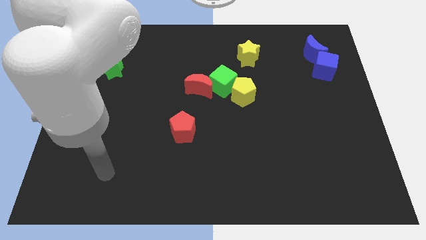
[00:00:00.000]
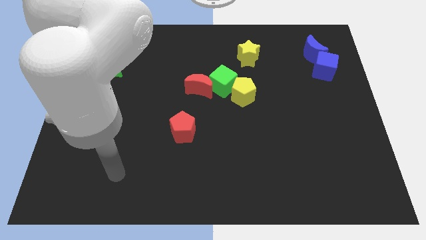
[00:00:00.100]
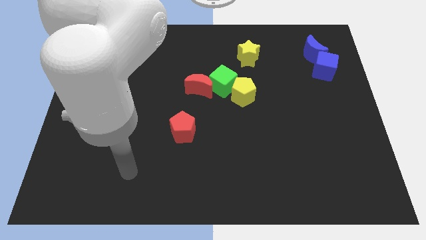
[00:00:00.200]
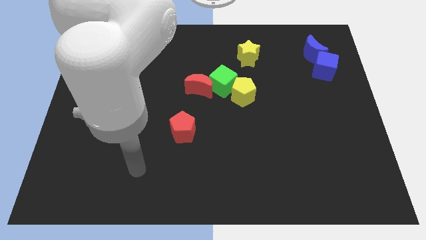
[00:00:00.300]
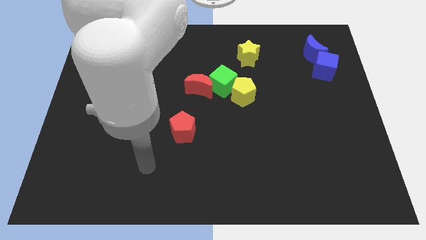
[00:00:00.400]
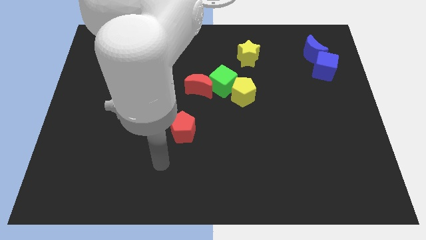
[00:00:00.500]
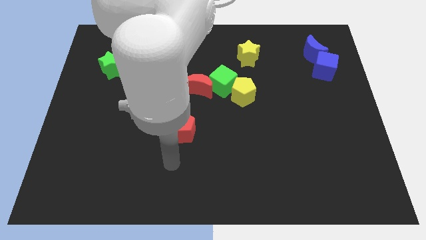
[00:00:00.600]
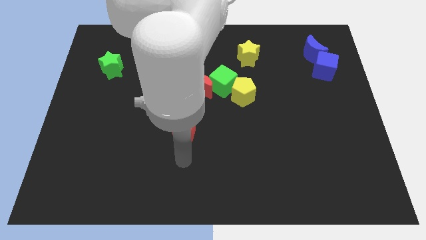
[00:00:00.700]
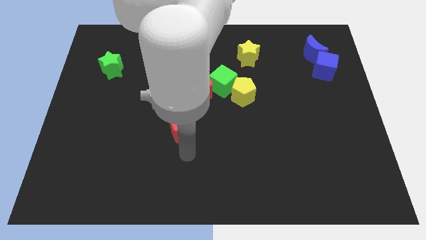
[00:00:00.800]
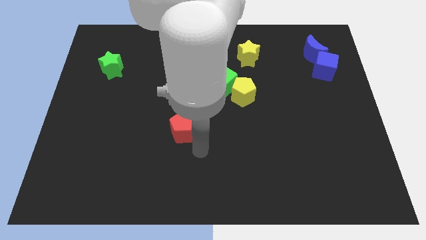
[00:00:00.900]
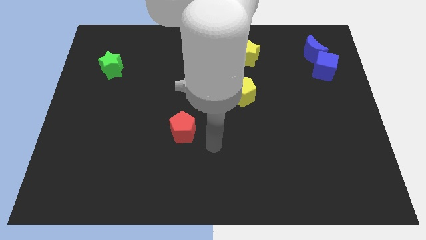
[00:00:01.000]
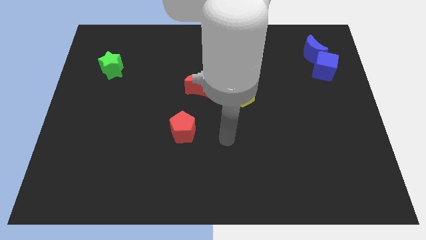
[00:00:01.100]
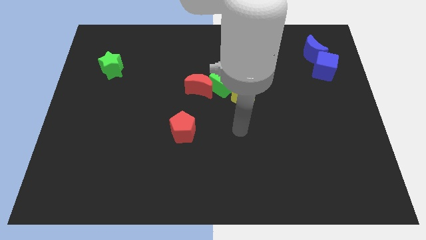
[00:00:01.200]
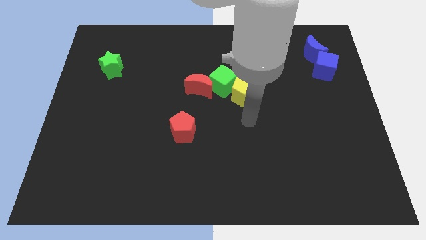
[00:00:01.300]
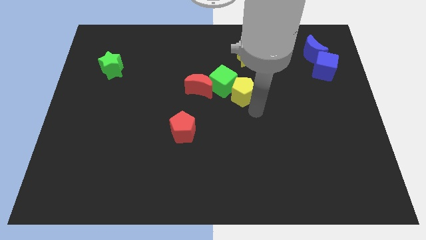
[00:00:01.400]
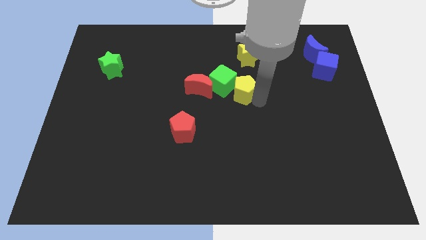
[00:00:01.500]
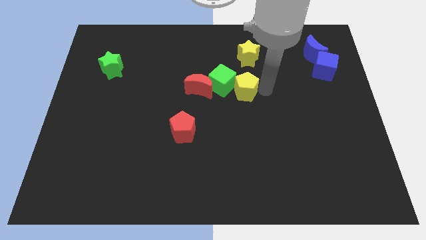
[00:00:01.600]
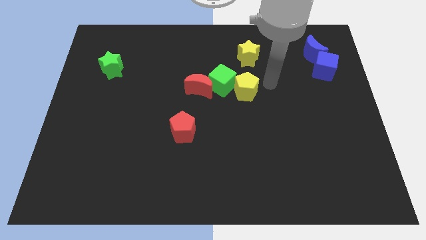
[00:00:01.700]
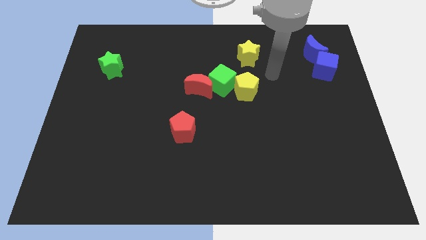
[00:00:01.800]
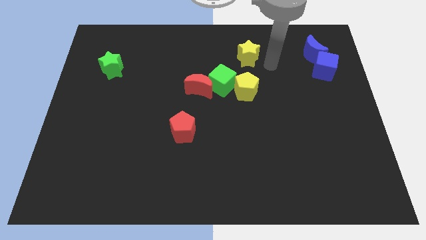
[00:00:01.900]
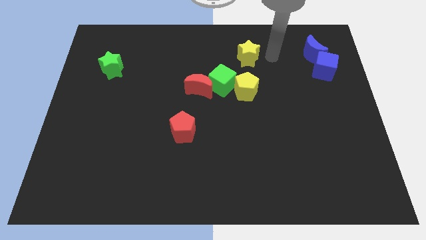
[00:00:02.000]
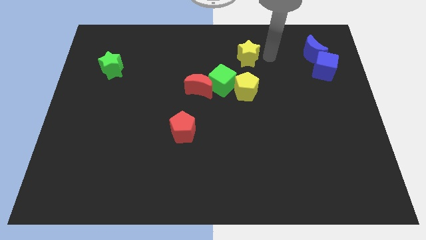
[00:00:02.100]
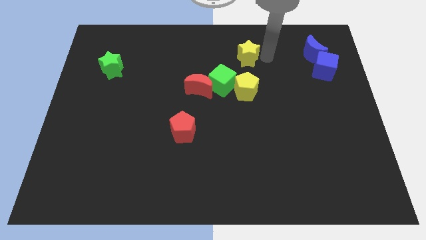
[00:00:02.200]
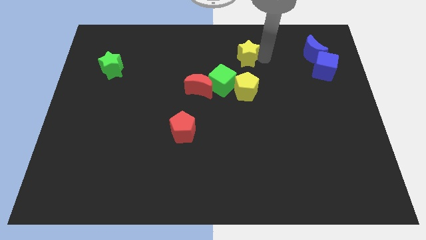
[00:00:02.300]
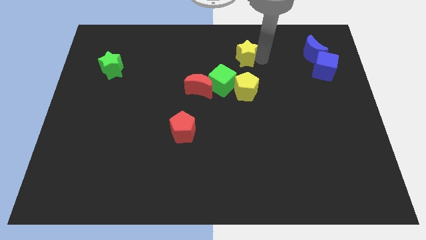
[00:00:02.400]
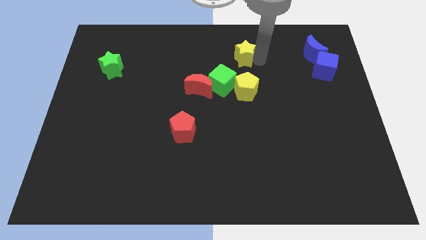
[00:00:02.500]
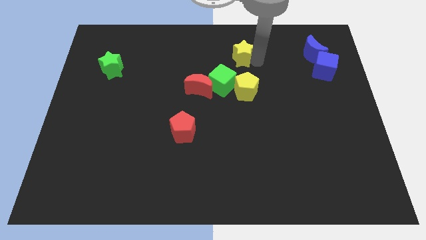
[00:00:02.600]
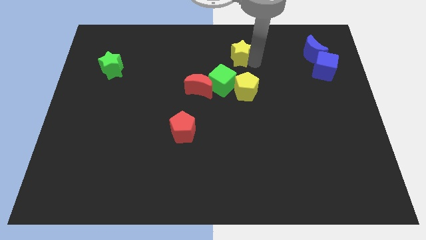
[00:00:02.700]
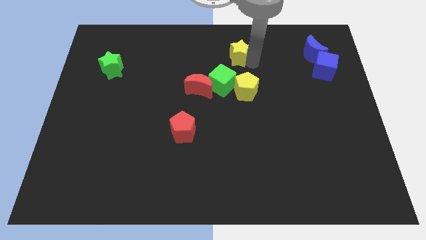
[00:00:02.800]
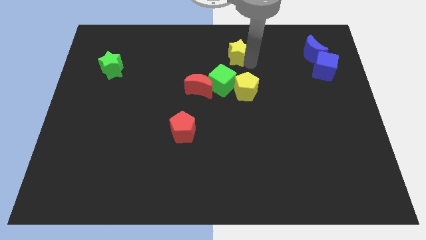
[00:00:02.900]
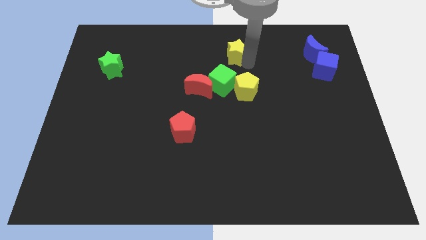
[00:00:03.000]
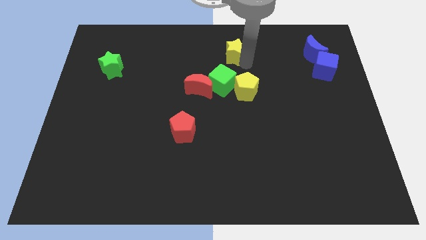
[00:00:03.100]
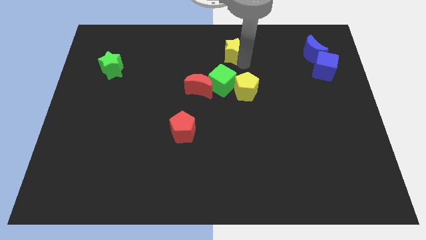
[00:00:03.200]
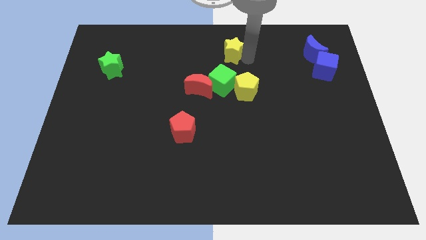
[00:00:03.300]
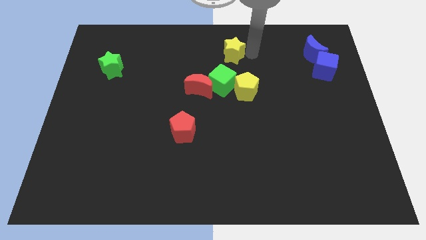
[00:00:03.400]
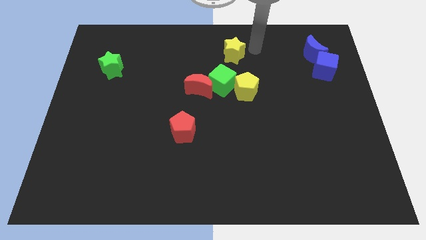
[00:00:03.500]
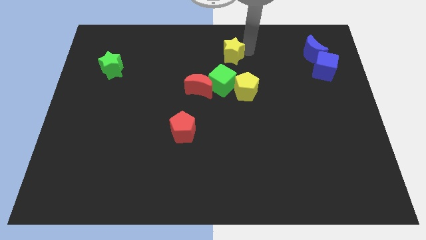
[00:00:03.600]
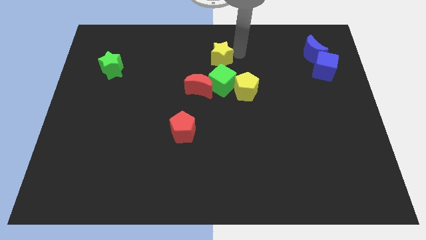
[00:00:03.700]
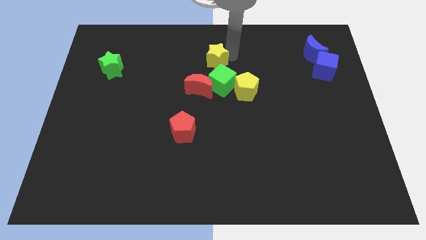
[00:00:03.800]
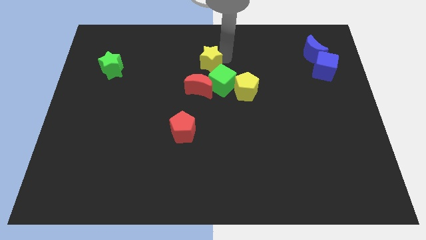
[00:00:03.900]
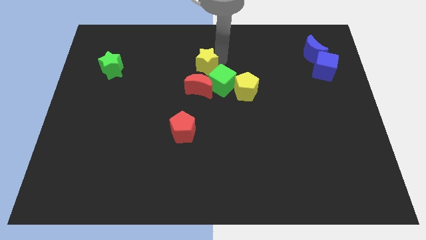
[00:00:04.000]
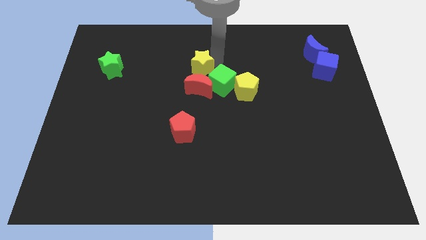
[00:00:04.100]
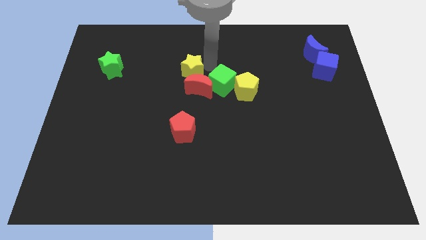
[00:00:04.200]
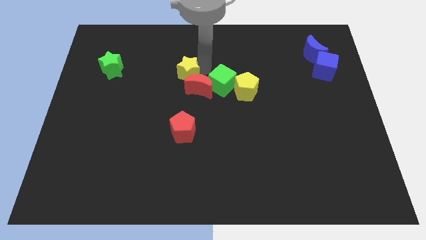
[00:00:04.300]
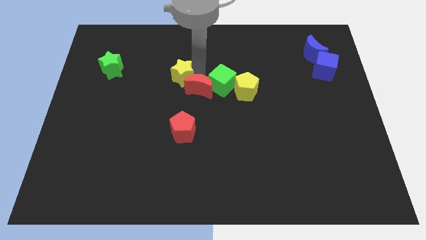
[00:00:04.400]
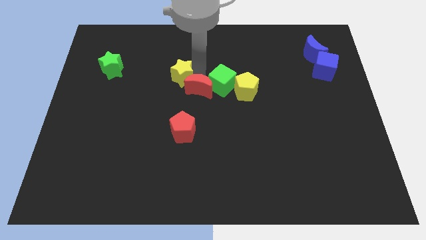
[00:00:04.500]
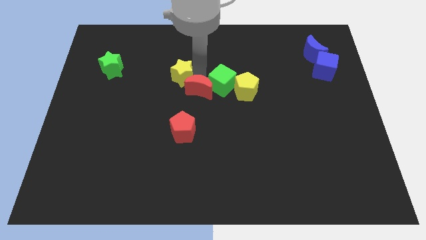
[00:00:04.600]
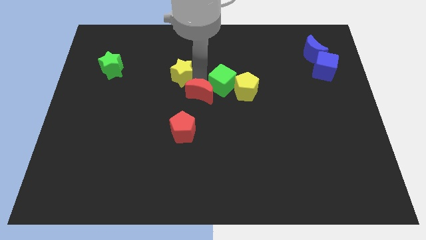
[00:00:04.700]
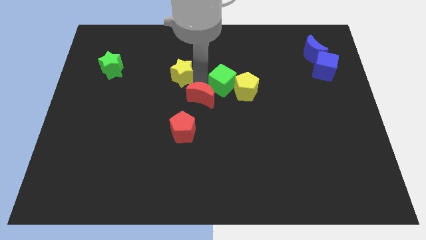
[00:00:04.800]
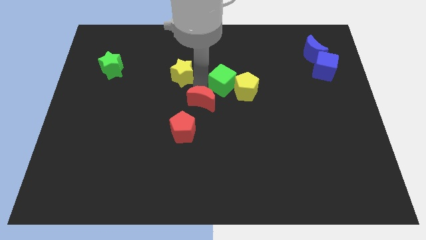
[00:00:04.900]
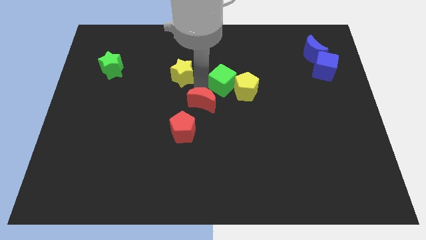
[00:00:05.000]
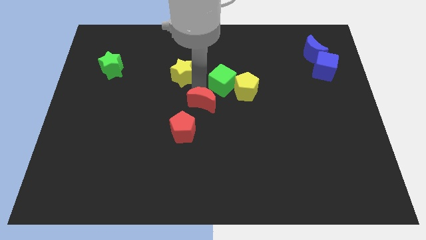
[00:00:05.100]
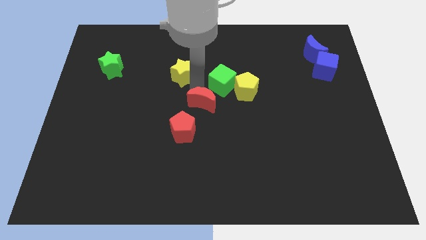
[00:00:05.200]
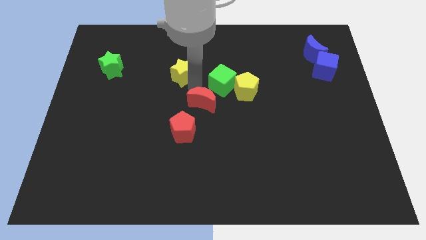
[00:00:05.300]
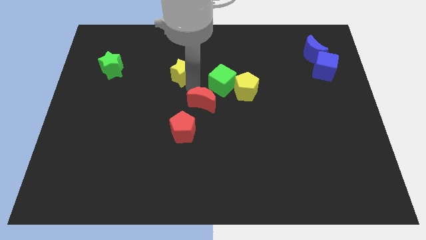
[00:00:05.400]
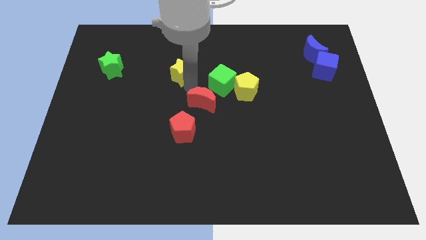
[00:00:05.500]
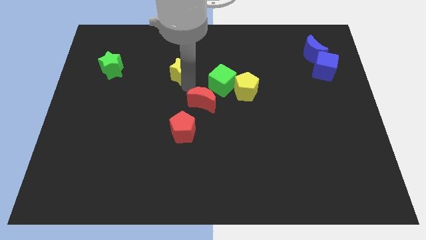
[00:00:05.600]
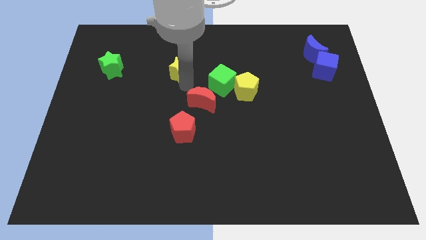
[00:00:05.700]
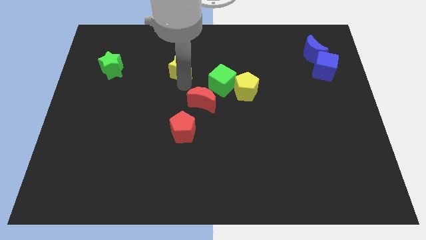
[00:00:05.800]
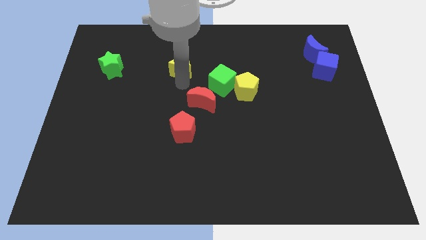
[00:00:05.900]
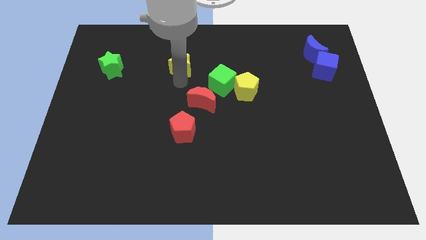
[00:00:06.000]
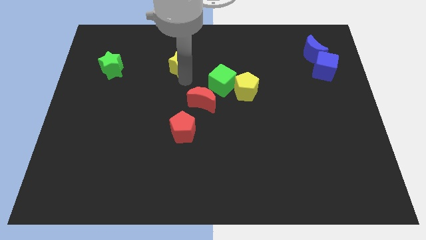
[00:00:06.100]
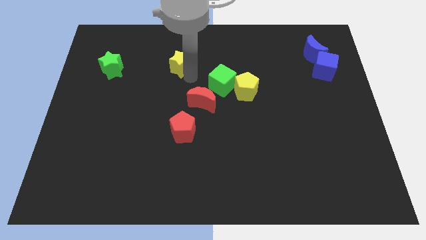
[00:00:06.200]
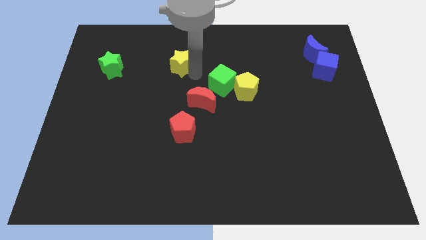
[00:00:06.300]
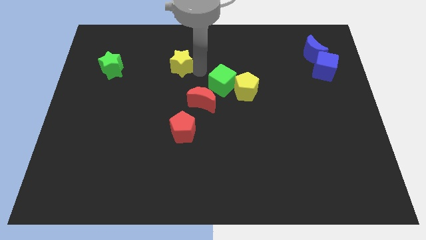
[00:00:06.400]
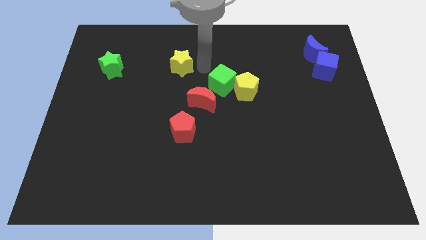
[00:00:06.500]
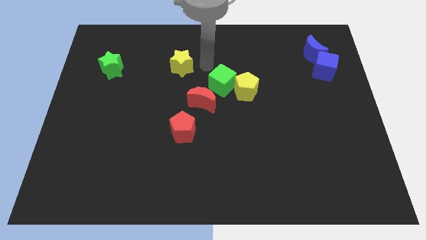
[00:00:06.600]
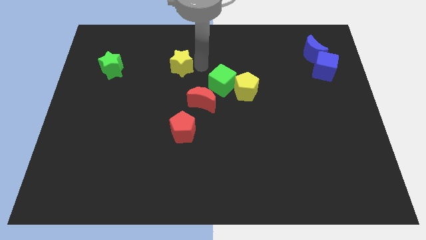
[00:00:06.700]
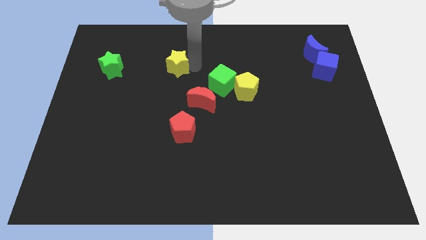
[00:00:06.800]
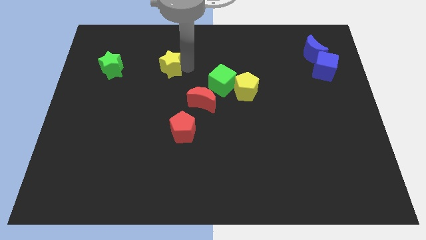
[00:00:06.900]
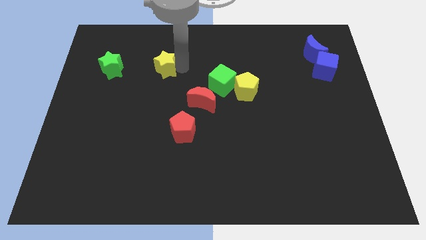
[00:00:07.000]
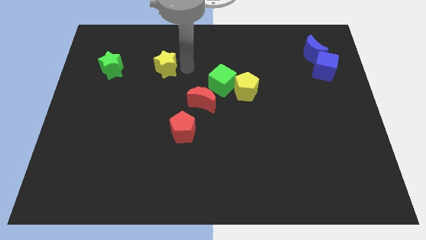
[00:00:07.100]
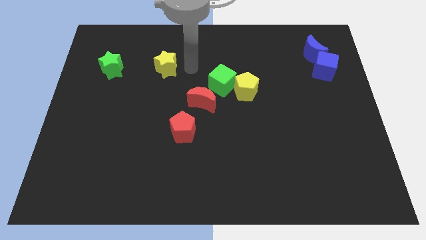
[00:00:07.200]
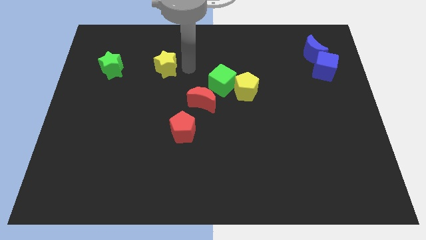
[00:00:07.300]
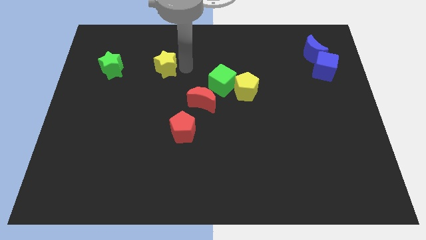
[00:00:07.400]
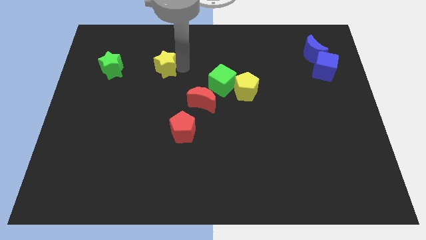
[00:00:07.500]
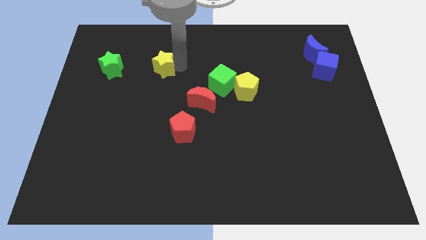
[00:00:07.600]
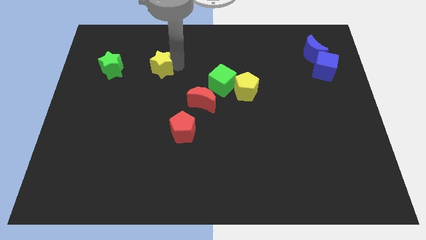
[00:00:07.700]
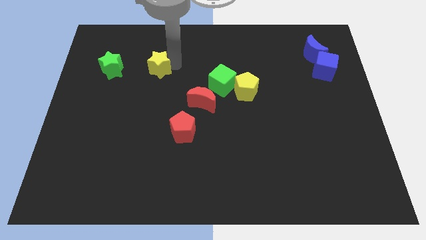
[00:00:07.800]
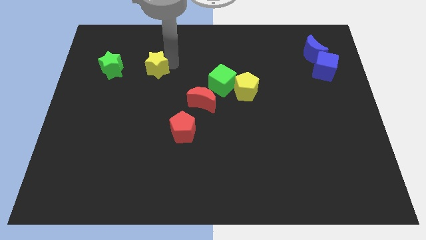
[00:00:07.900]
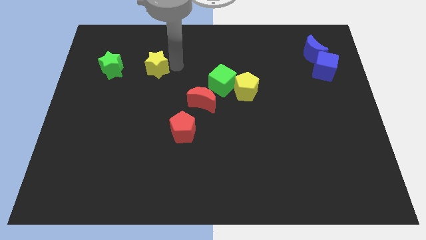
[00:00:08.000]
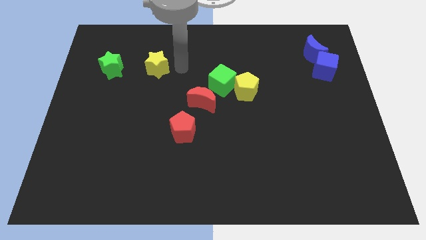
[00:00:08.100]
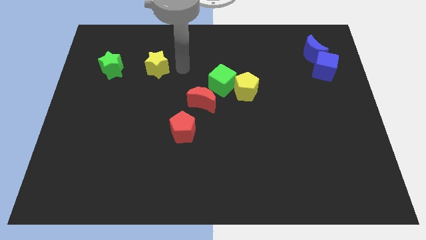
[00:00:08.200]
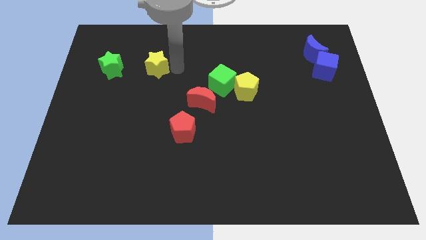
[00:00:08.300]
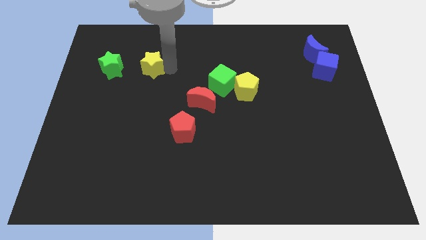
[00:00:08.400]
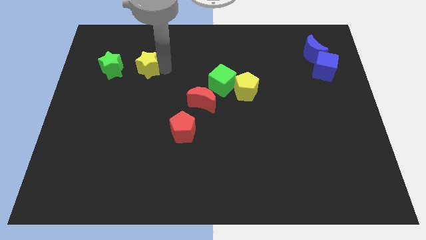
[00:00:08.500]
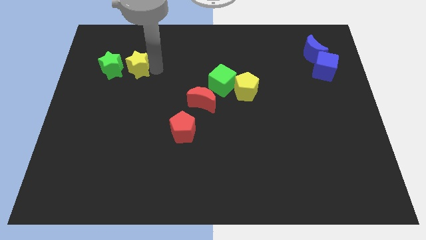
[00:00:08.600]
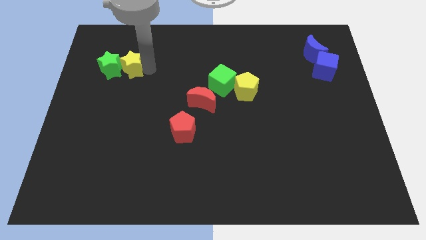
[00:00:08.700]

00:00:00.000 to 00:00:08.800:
put the yellow star close to the green star
